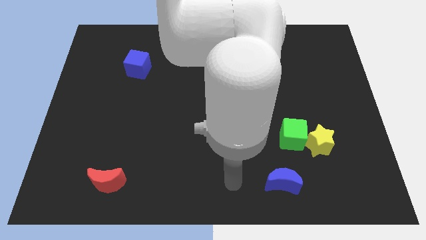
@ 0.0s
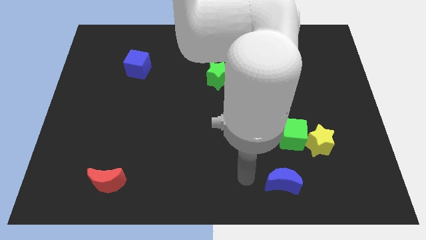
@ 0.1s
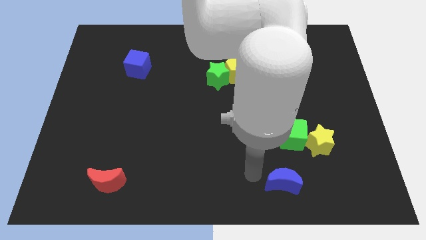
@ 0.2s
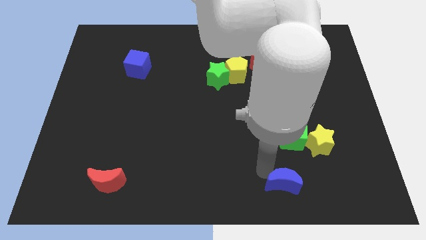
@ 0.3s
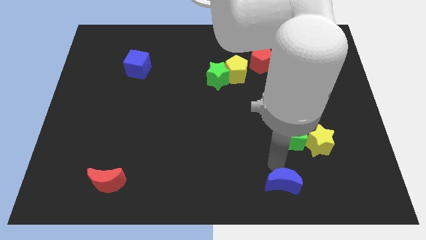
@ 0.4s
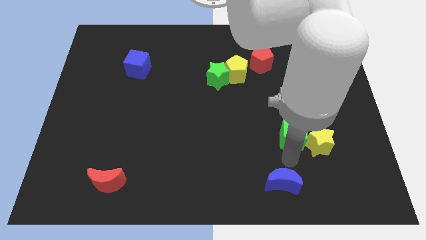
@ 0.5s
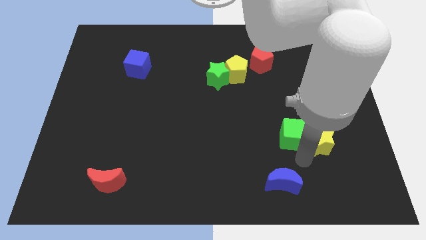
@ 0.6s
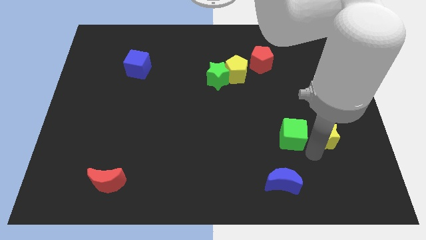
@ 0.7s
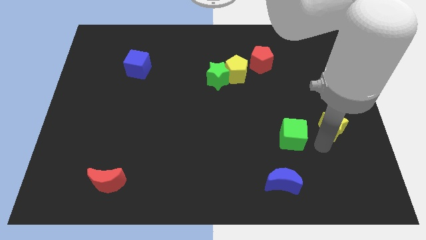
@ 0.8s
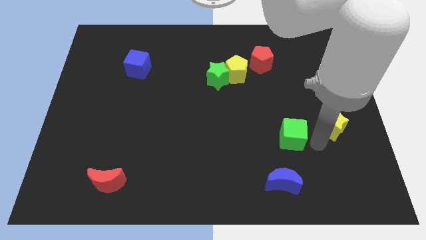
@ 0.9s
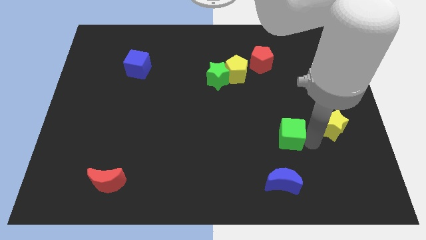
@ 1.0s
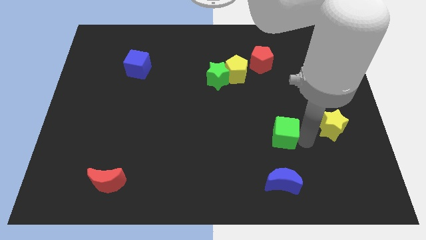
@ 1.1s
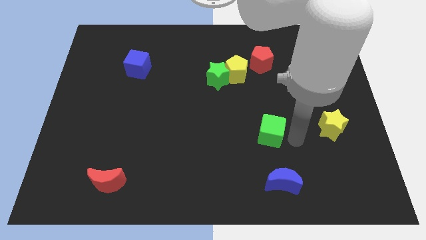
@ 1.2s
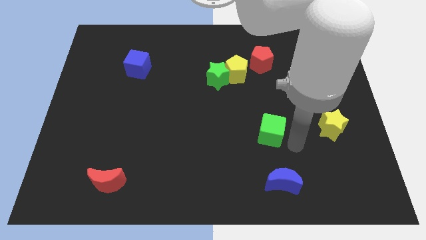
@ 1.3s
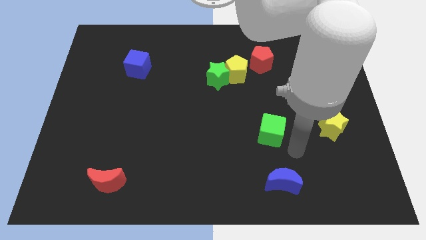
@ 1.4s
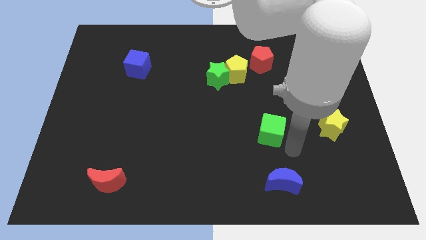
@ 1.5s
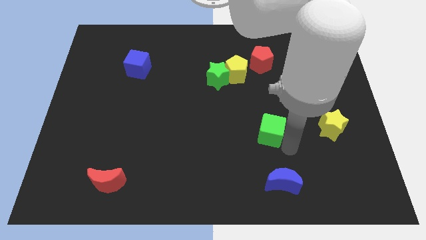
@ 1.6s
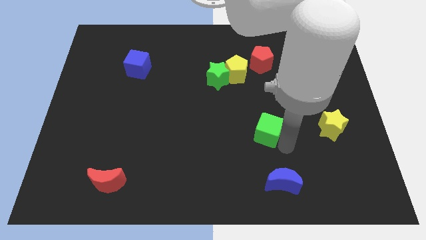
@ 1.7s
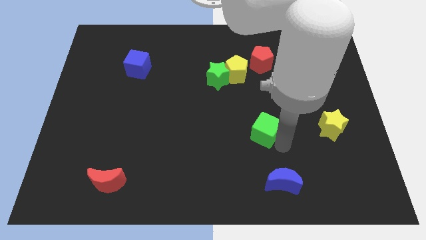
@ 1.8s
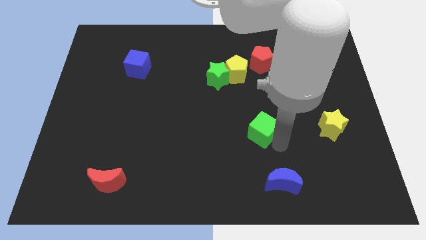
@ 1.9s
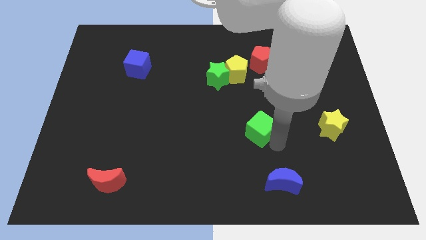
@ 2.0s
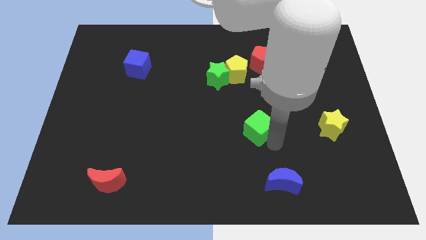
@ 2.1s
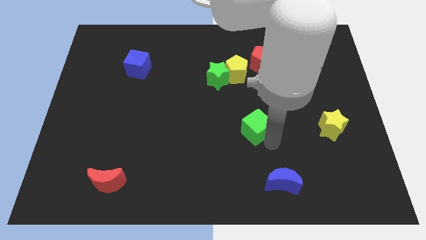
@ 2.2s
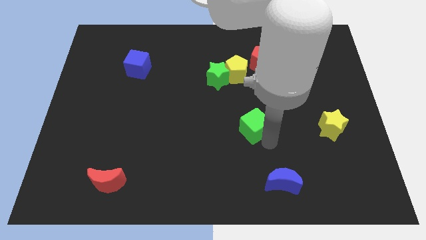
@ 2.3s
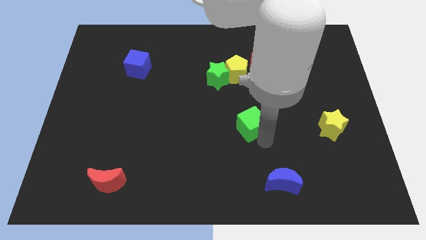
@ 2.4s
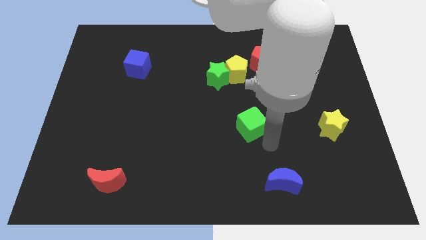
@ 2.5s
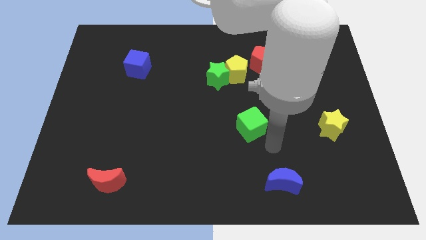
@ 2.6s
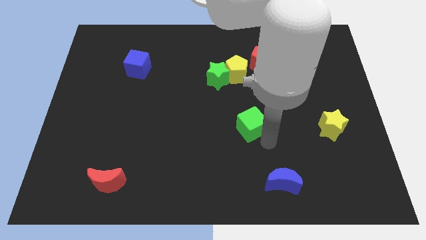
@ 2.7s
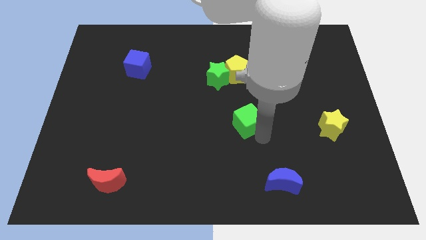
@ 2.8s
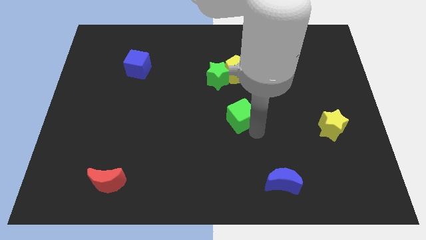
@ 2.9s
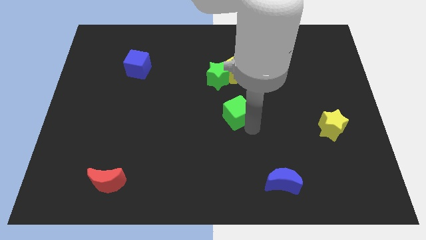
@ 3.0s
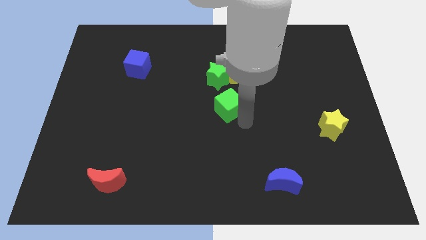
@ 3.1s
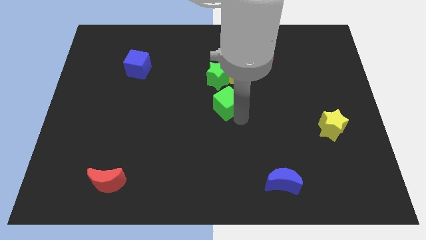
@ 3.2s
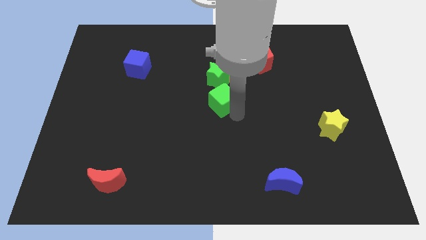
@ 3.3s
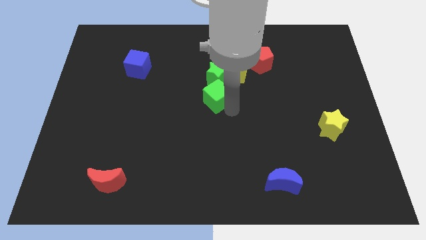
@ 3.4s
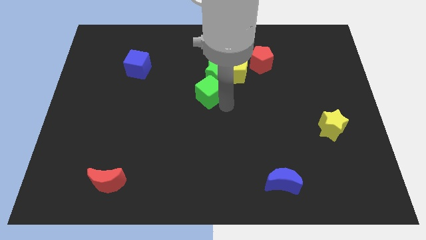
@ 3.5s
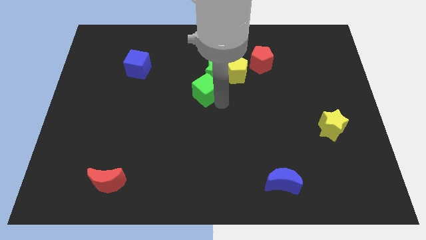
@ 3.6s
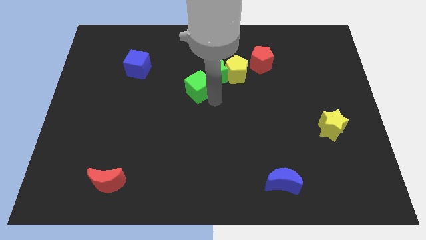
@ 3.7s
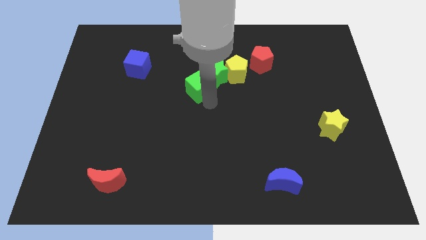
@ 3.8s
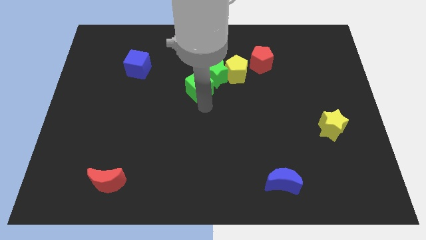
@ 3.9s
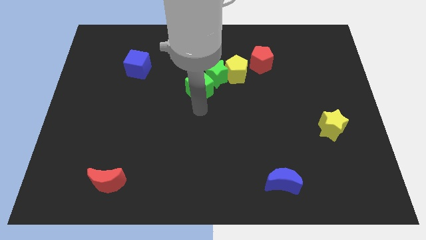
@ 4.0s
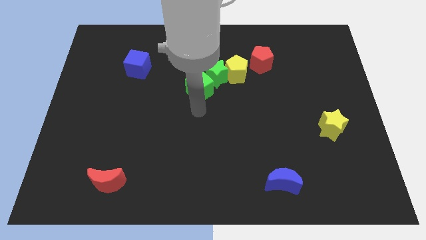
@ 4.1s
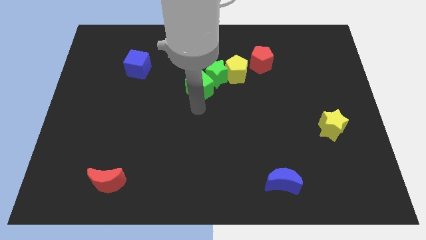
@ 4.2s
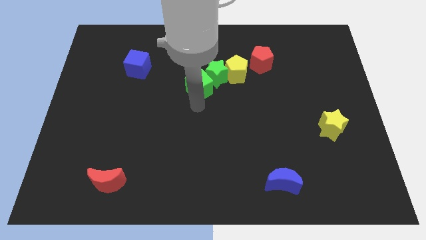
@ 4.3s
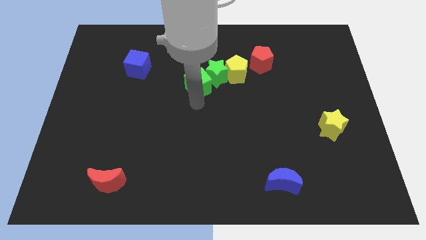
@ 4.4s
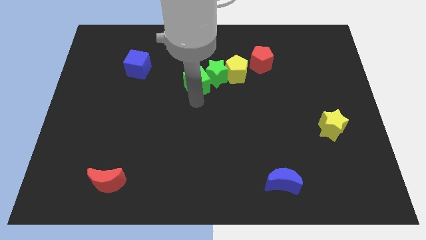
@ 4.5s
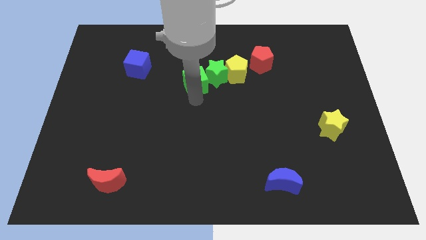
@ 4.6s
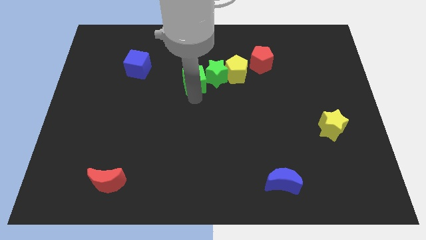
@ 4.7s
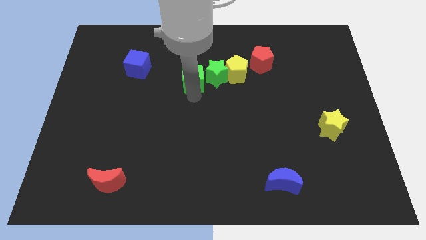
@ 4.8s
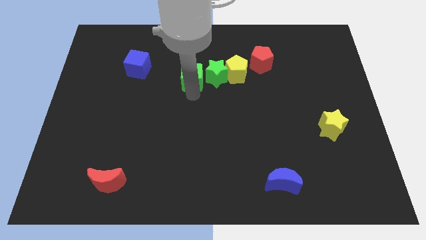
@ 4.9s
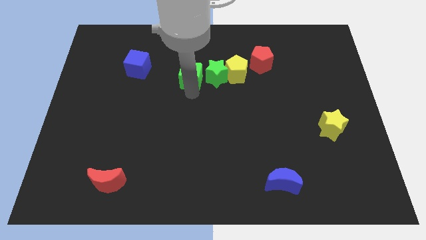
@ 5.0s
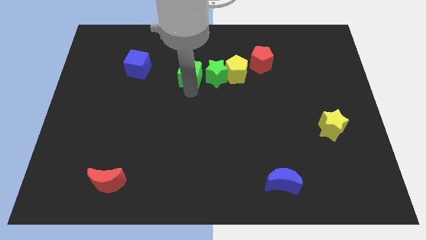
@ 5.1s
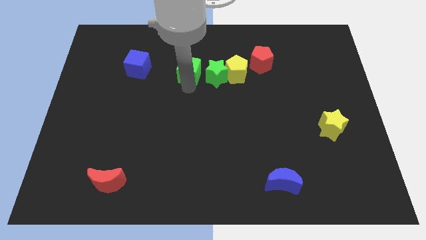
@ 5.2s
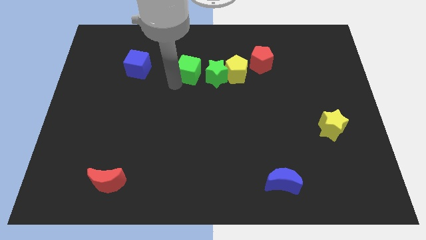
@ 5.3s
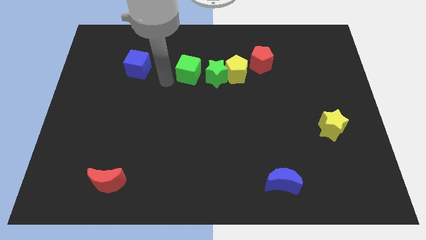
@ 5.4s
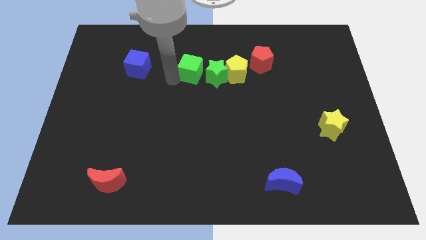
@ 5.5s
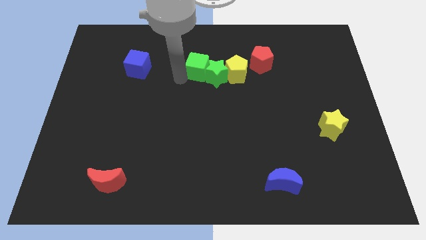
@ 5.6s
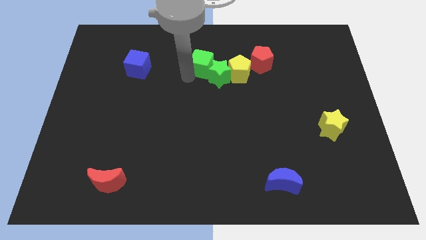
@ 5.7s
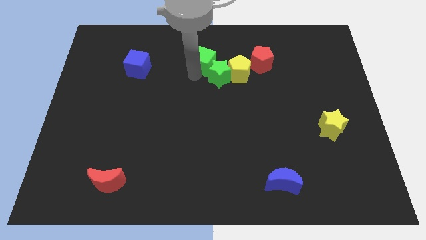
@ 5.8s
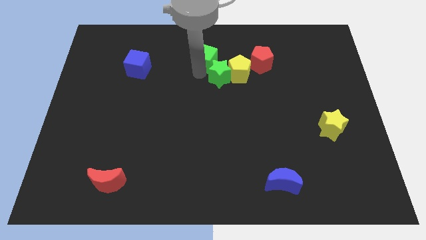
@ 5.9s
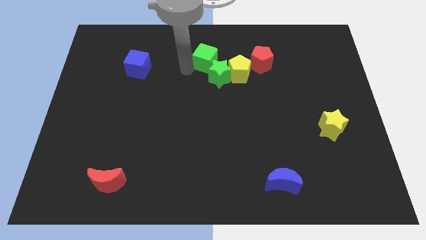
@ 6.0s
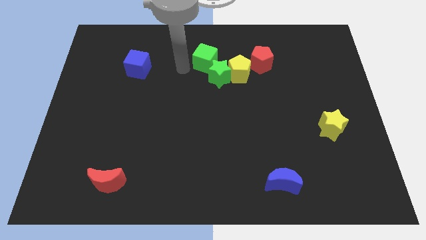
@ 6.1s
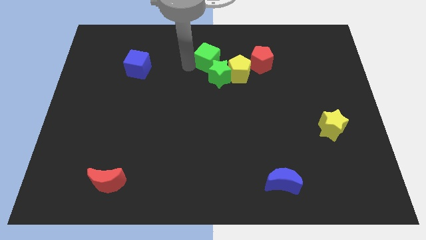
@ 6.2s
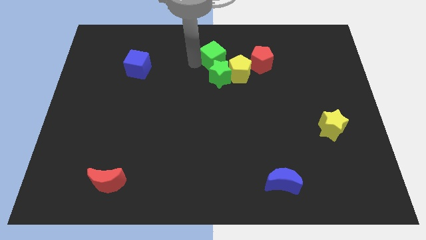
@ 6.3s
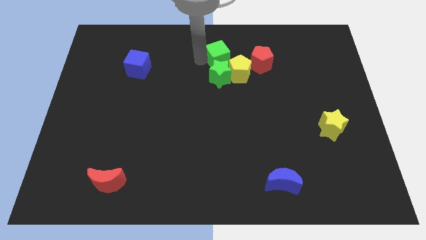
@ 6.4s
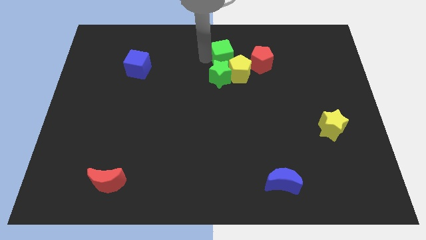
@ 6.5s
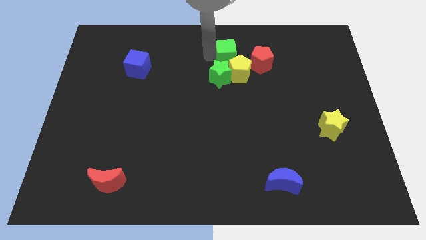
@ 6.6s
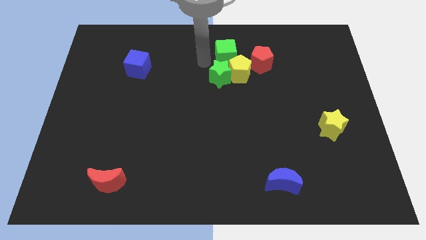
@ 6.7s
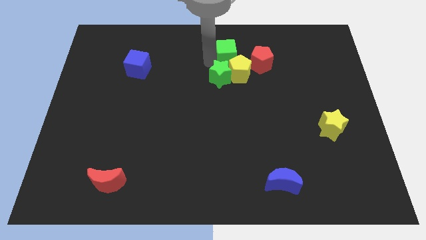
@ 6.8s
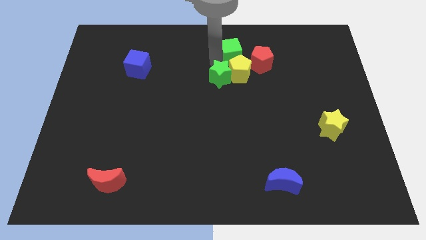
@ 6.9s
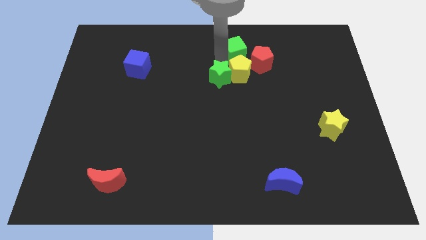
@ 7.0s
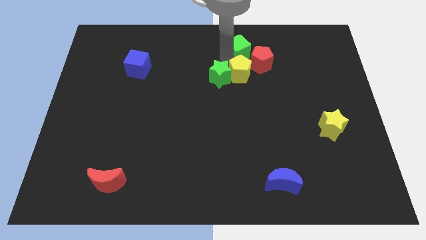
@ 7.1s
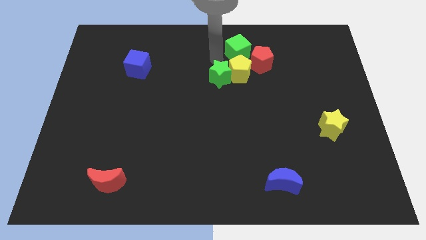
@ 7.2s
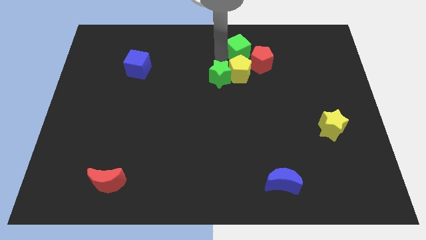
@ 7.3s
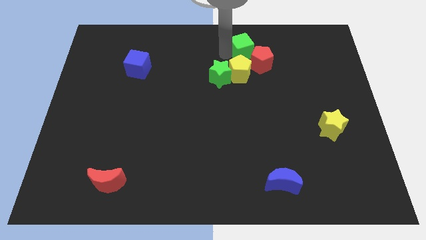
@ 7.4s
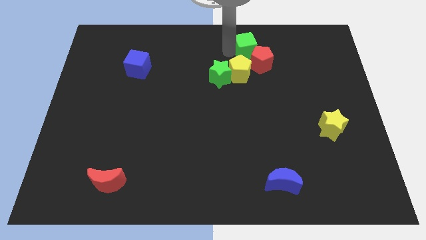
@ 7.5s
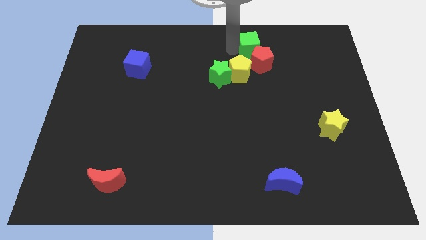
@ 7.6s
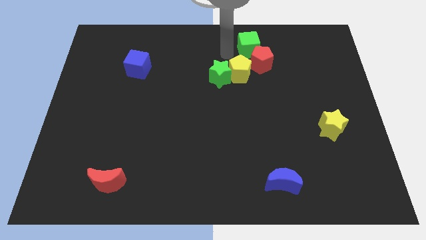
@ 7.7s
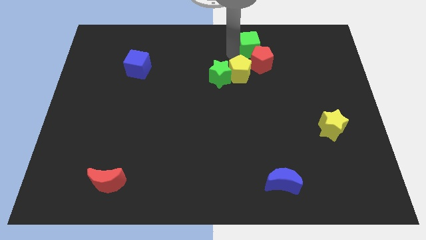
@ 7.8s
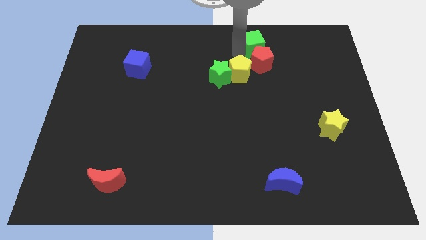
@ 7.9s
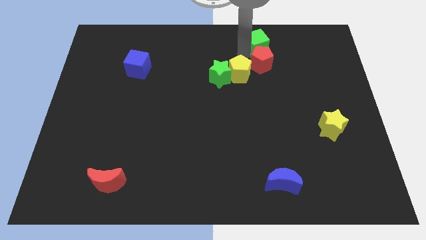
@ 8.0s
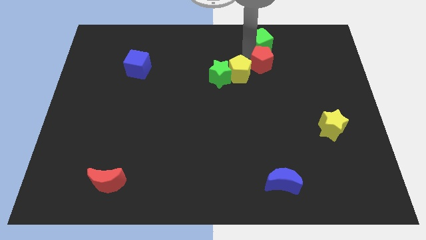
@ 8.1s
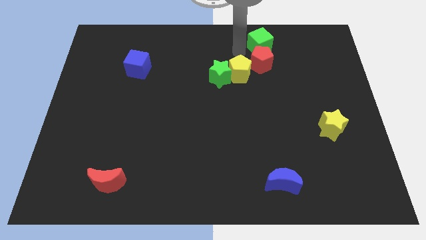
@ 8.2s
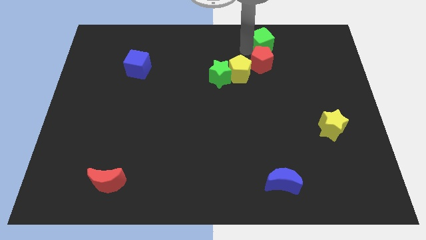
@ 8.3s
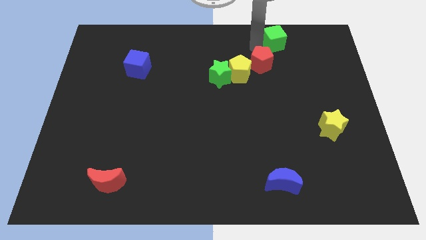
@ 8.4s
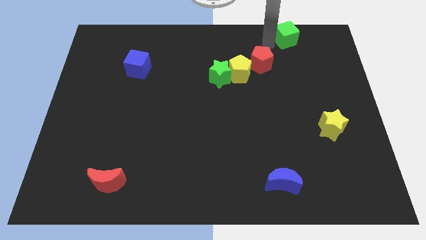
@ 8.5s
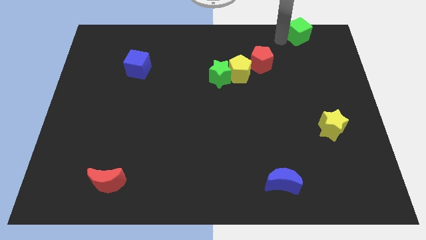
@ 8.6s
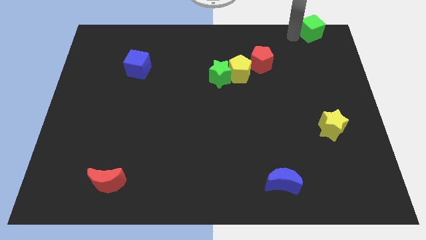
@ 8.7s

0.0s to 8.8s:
move the green cube to the top right of the board
